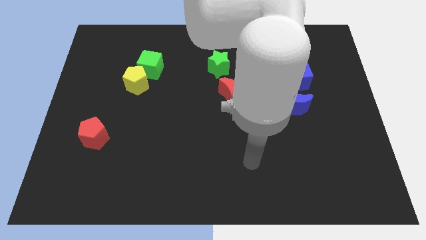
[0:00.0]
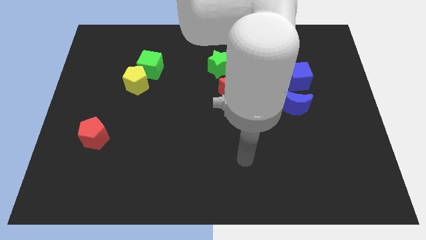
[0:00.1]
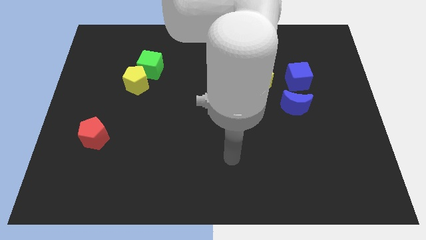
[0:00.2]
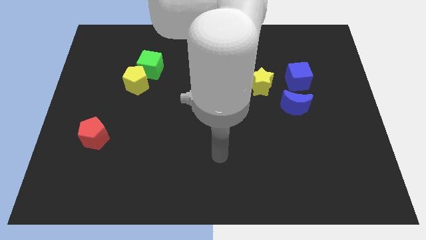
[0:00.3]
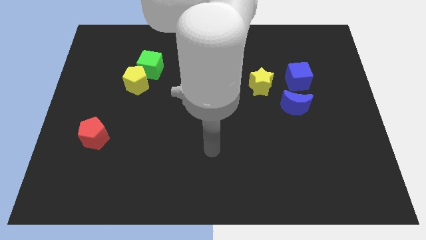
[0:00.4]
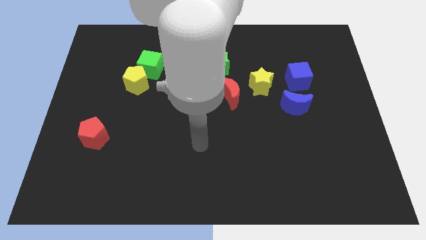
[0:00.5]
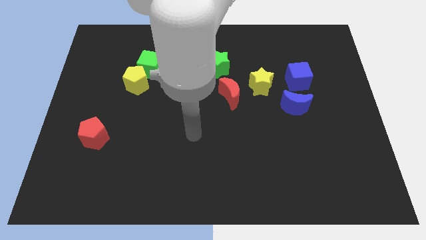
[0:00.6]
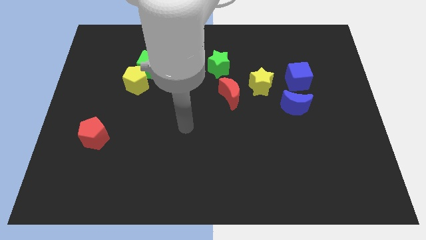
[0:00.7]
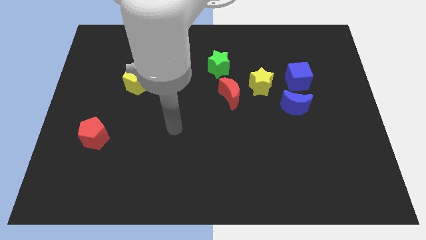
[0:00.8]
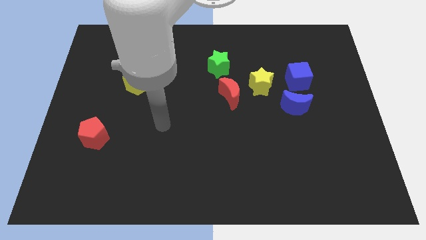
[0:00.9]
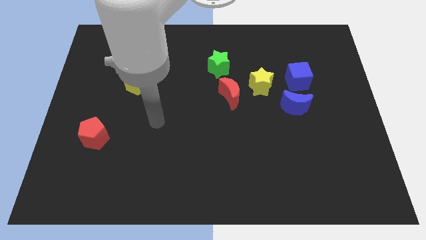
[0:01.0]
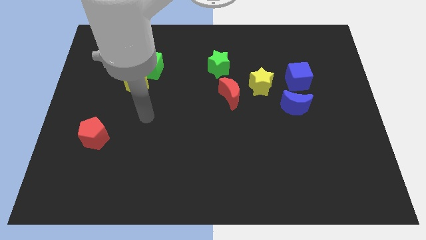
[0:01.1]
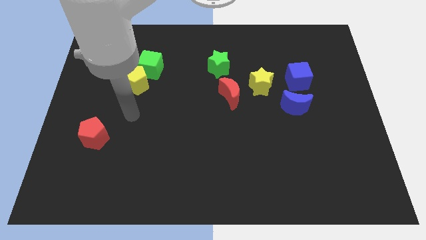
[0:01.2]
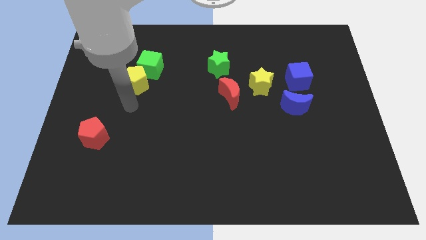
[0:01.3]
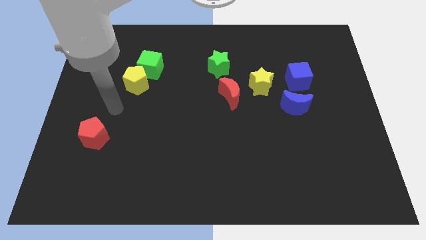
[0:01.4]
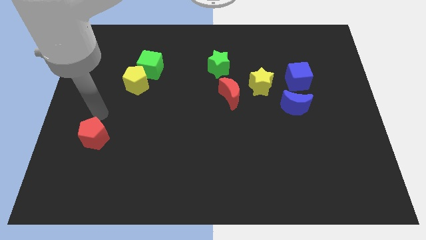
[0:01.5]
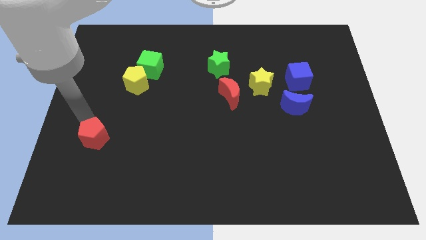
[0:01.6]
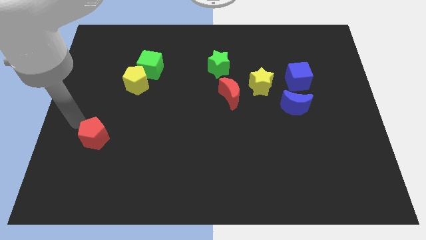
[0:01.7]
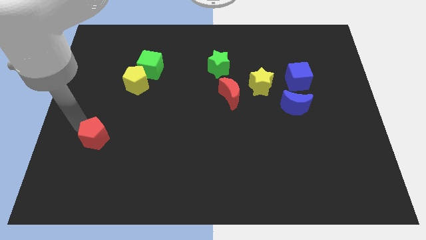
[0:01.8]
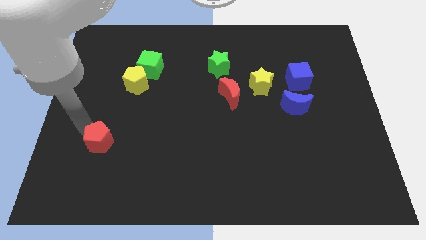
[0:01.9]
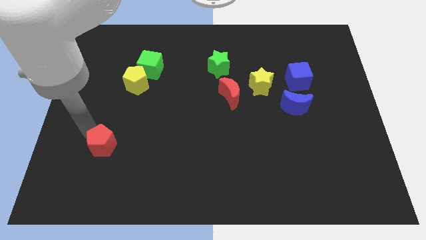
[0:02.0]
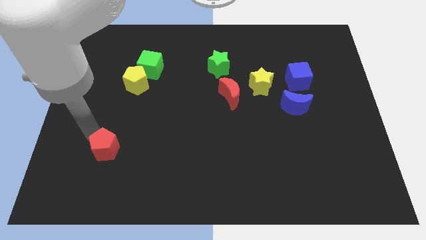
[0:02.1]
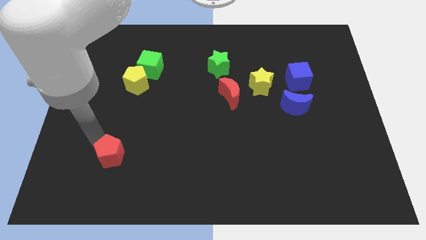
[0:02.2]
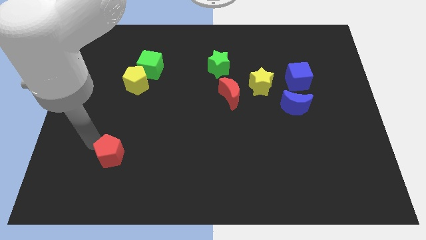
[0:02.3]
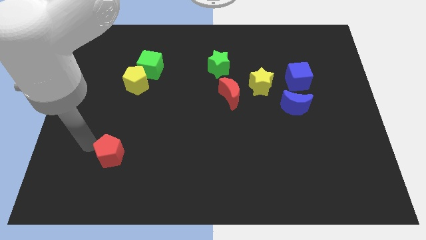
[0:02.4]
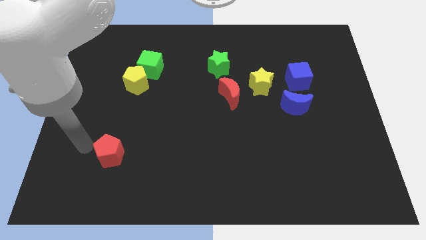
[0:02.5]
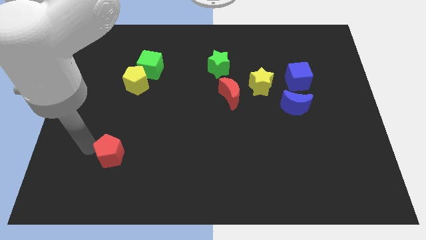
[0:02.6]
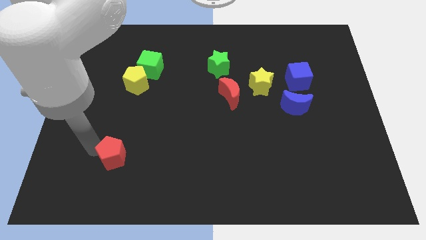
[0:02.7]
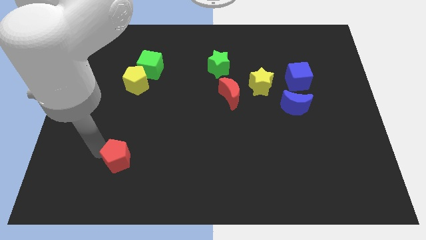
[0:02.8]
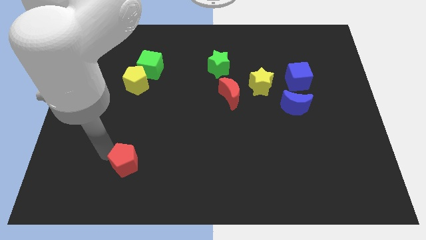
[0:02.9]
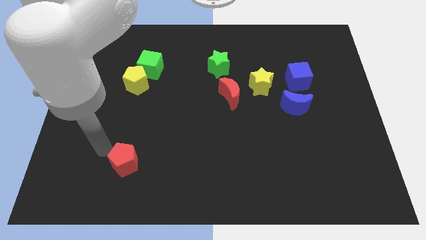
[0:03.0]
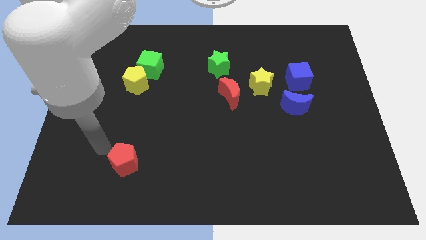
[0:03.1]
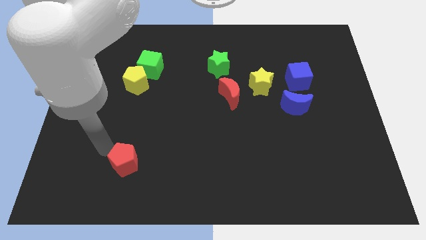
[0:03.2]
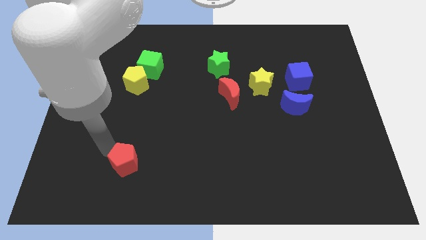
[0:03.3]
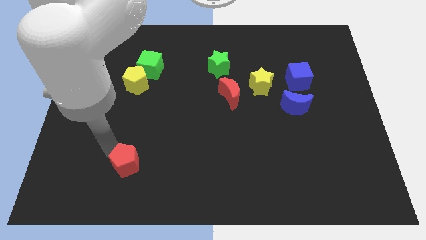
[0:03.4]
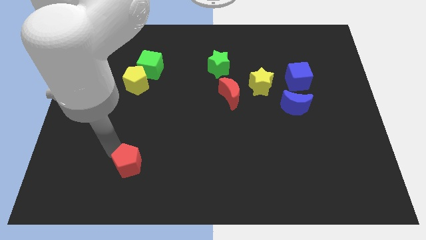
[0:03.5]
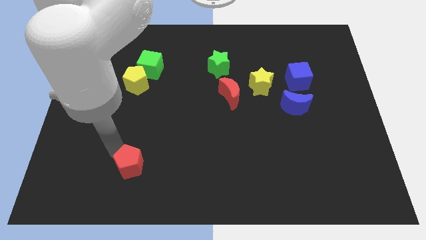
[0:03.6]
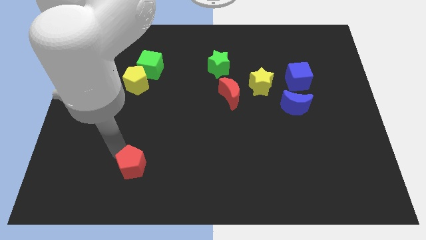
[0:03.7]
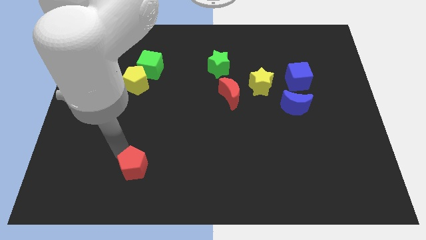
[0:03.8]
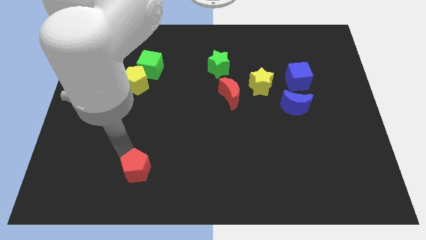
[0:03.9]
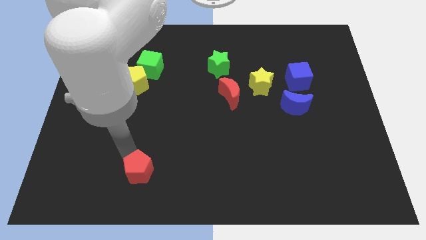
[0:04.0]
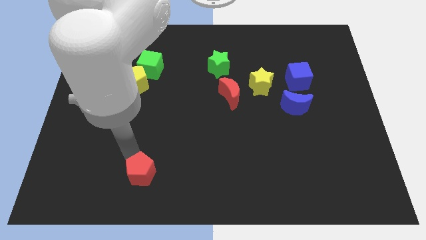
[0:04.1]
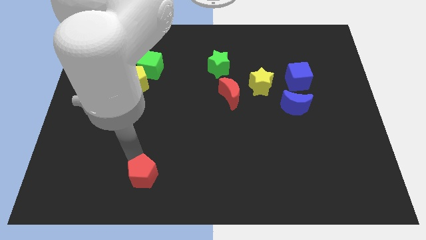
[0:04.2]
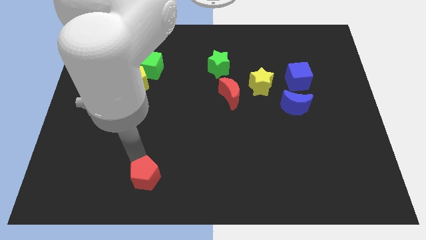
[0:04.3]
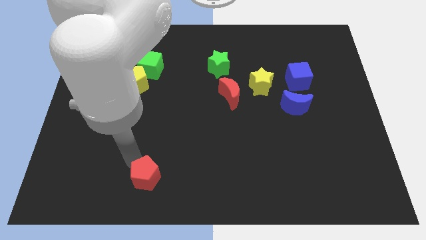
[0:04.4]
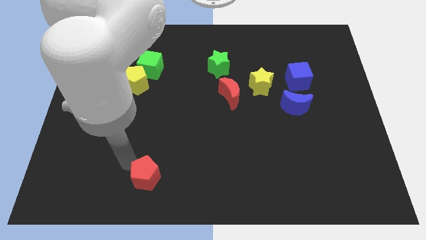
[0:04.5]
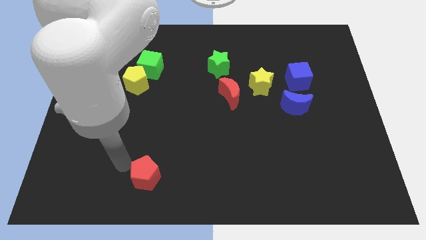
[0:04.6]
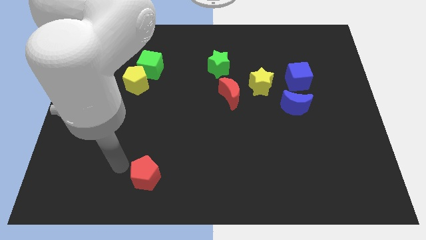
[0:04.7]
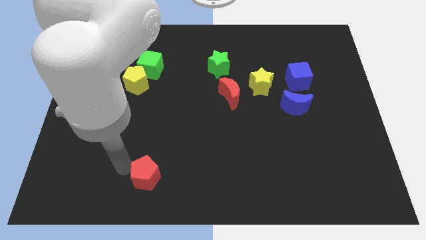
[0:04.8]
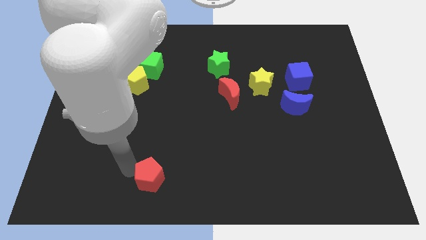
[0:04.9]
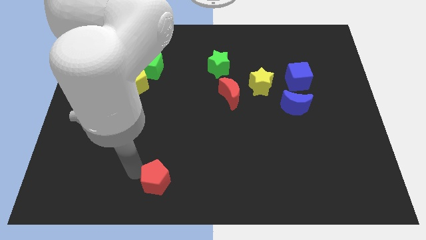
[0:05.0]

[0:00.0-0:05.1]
push the red pentagon to the bottom side

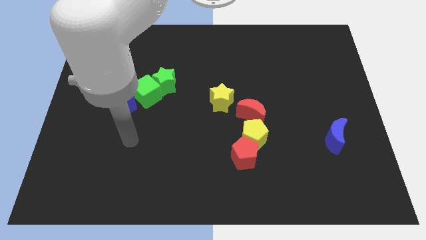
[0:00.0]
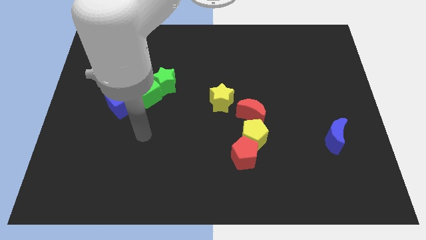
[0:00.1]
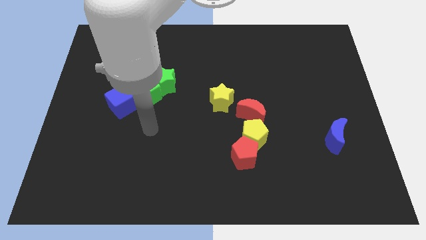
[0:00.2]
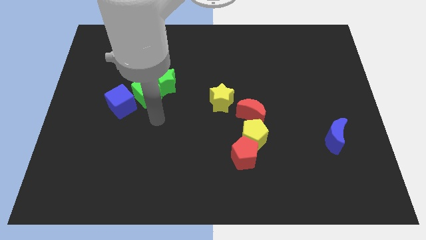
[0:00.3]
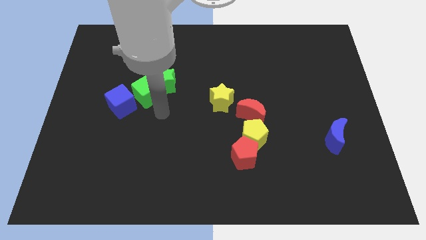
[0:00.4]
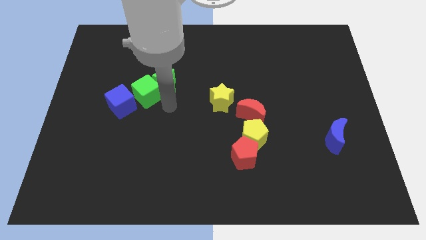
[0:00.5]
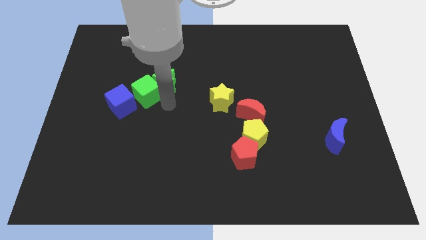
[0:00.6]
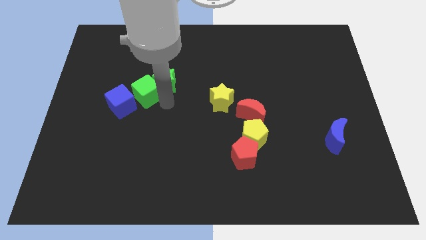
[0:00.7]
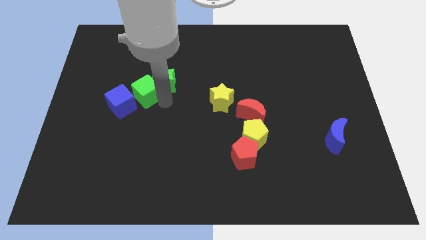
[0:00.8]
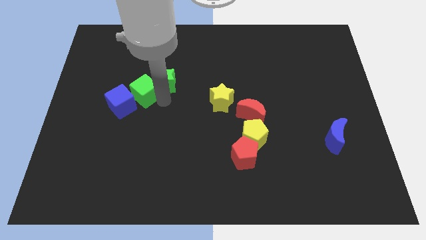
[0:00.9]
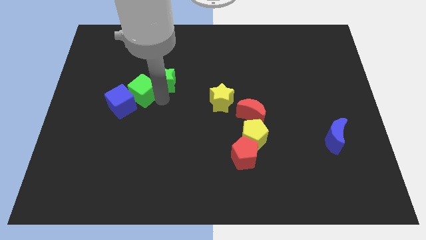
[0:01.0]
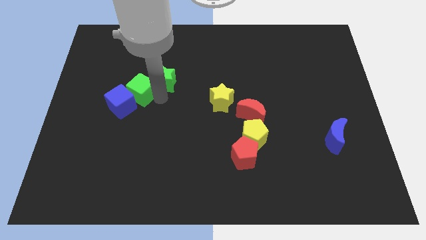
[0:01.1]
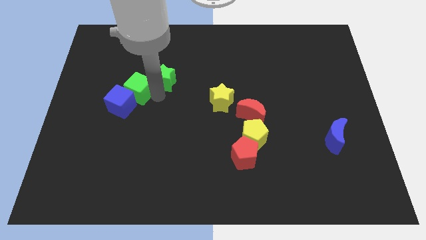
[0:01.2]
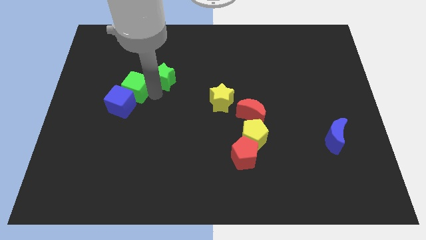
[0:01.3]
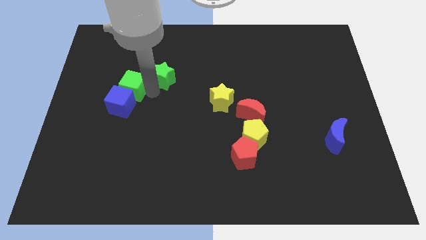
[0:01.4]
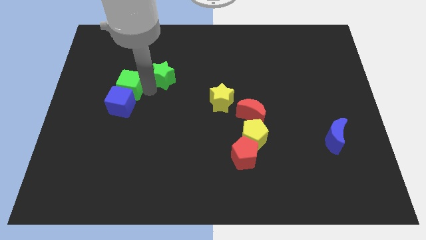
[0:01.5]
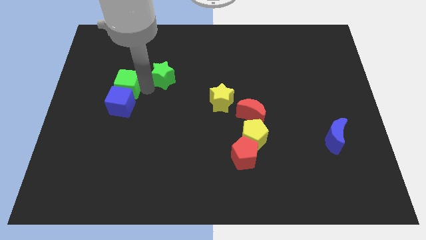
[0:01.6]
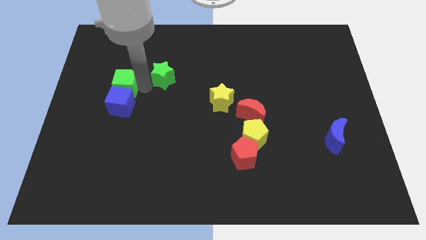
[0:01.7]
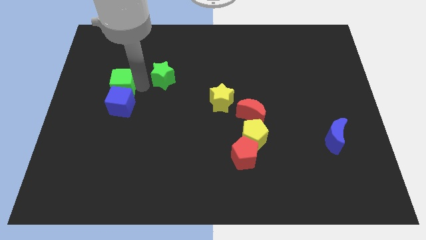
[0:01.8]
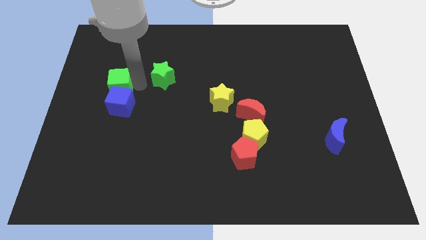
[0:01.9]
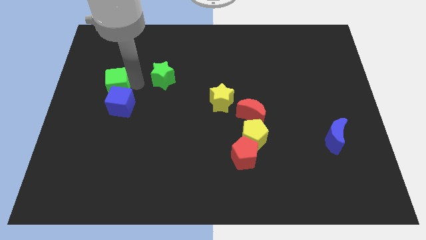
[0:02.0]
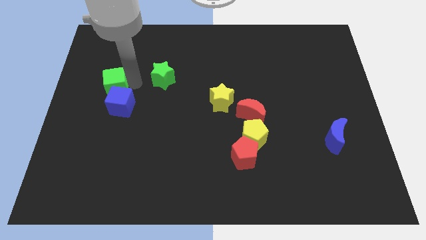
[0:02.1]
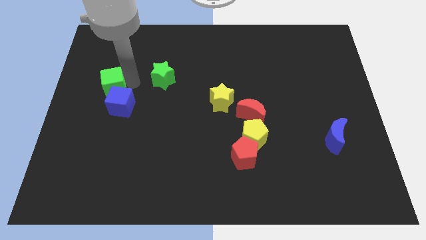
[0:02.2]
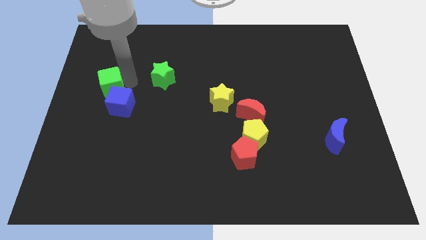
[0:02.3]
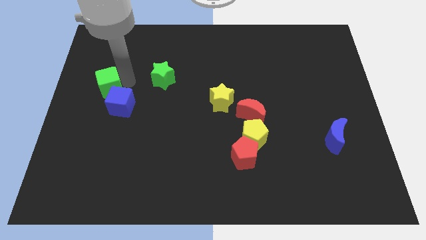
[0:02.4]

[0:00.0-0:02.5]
push the green cube to the left side of the board
